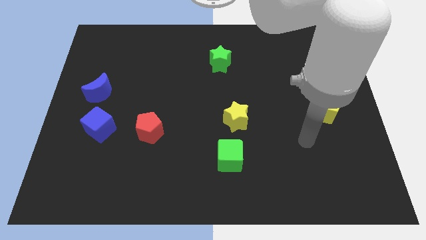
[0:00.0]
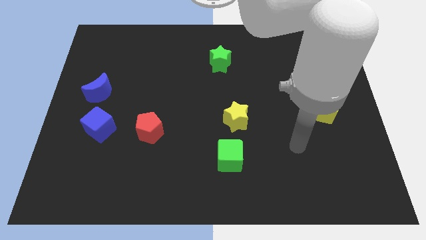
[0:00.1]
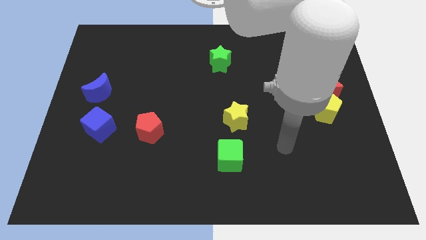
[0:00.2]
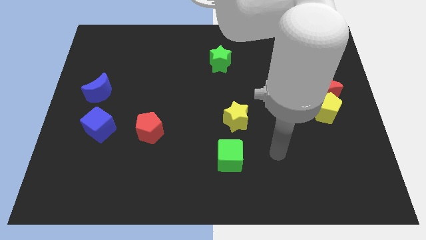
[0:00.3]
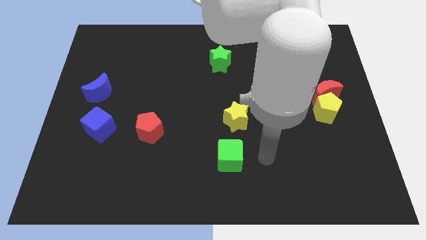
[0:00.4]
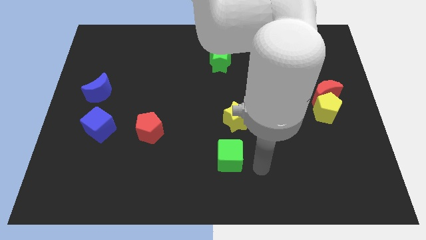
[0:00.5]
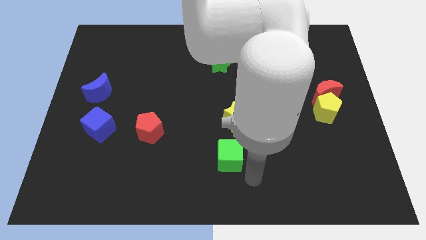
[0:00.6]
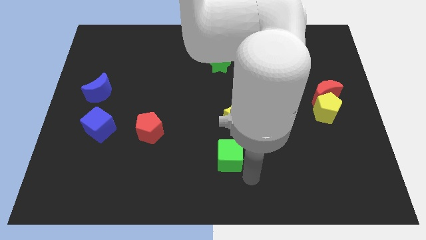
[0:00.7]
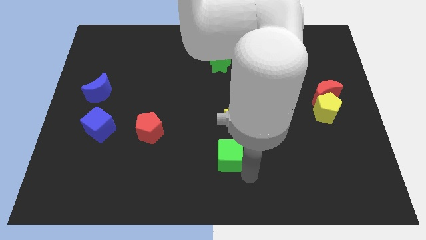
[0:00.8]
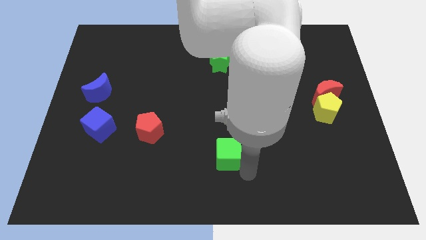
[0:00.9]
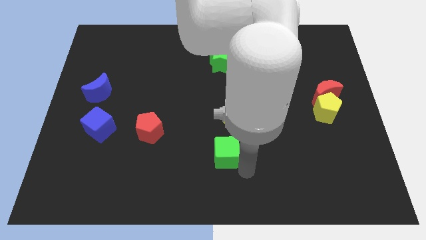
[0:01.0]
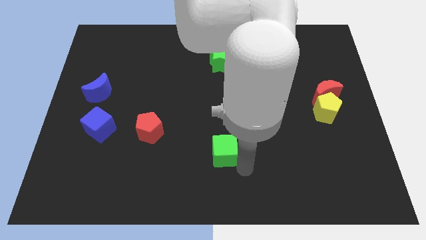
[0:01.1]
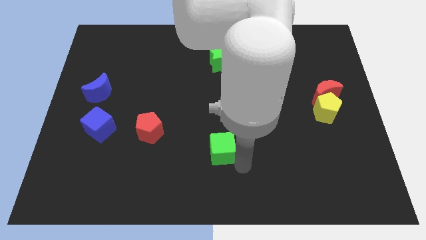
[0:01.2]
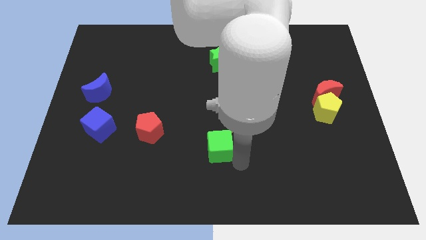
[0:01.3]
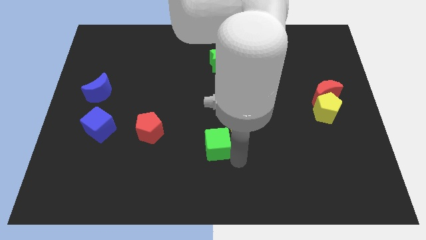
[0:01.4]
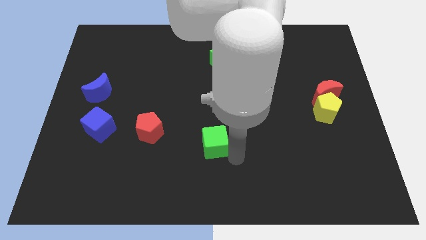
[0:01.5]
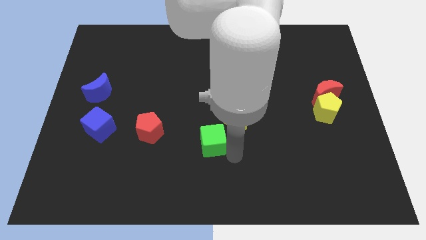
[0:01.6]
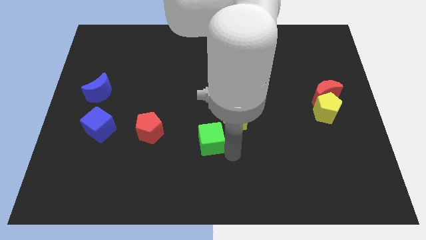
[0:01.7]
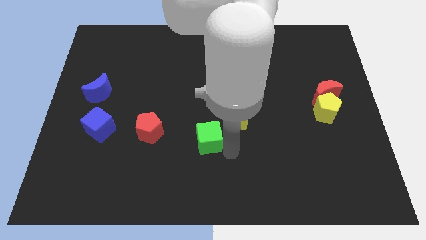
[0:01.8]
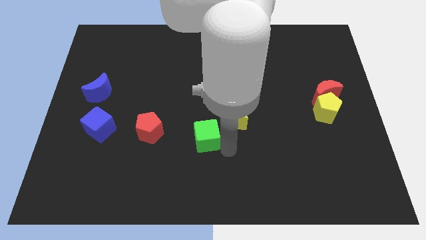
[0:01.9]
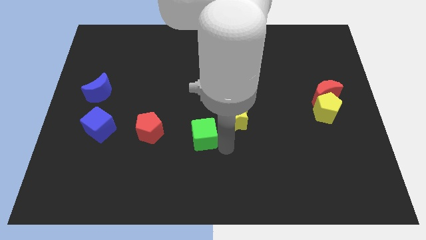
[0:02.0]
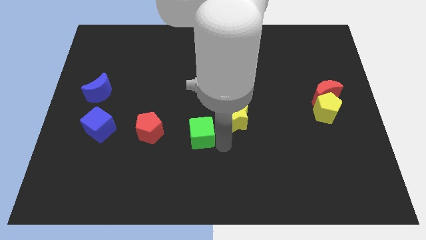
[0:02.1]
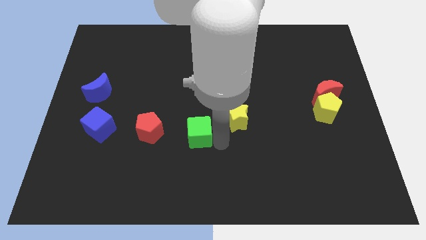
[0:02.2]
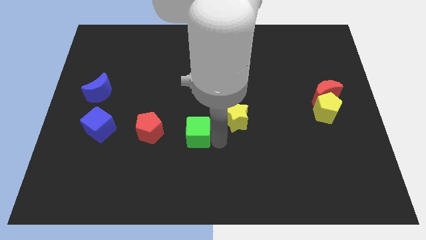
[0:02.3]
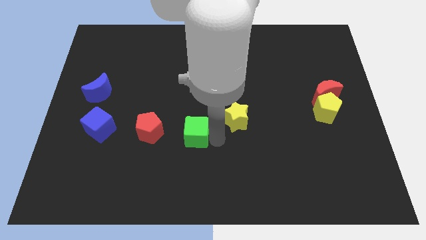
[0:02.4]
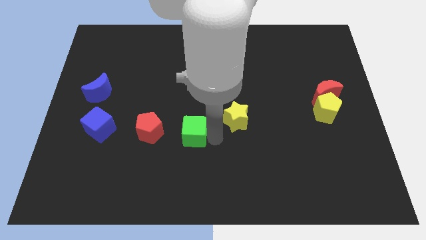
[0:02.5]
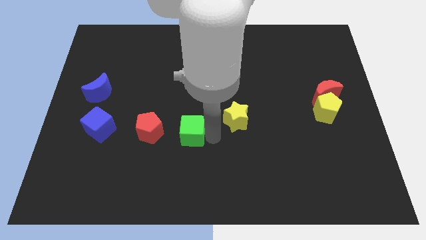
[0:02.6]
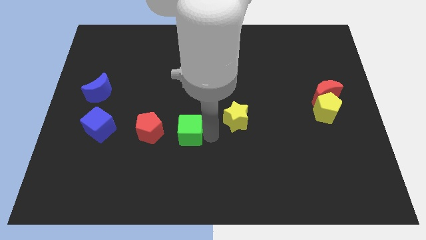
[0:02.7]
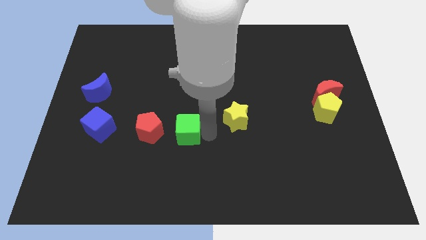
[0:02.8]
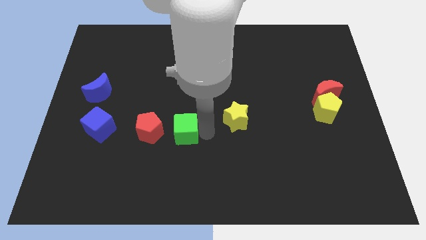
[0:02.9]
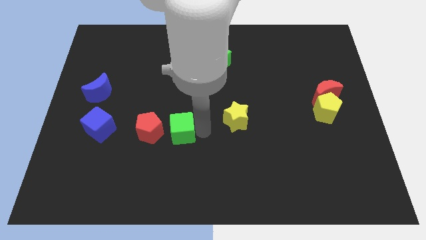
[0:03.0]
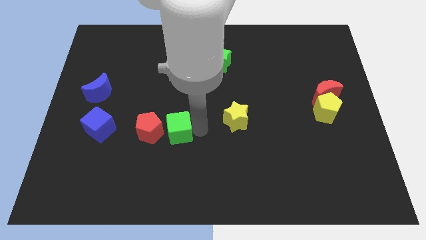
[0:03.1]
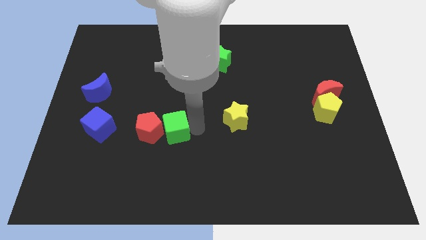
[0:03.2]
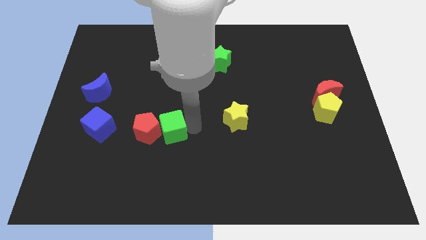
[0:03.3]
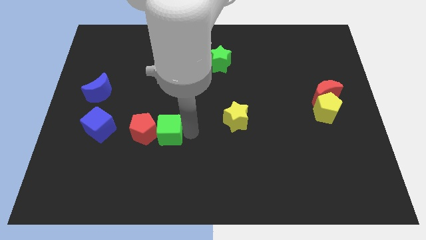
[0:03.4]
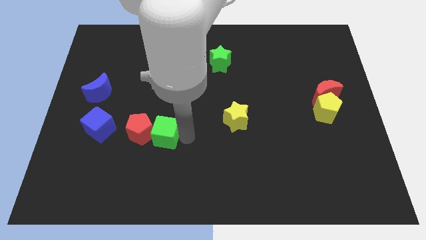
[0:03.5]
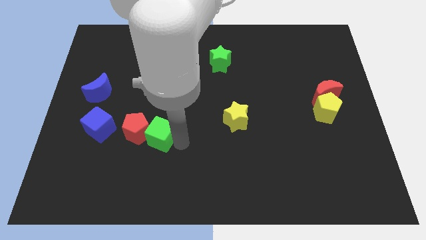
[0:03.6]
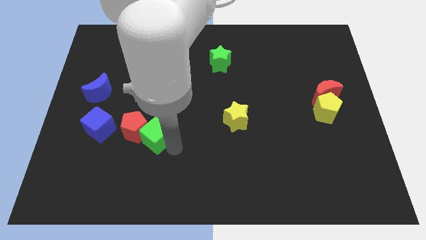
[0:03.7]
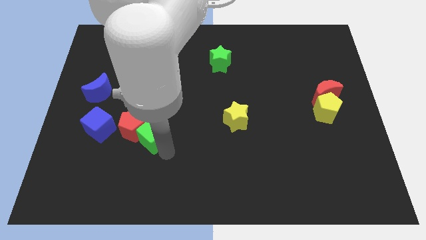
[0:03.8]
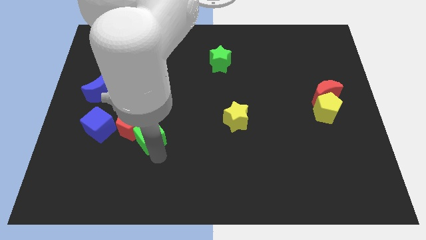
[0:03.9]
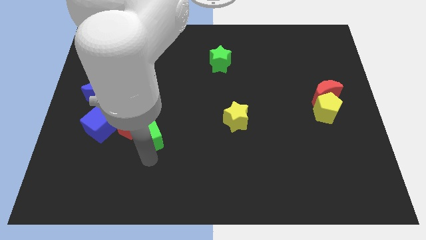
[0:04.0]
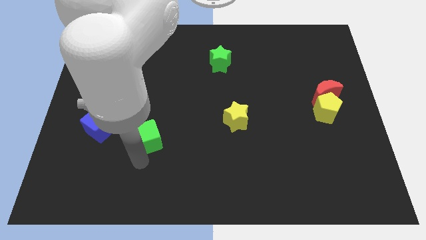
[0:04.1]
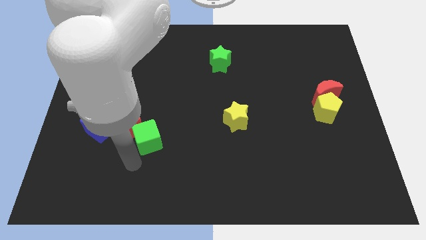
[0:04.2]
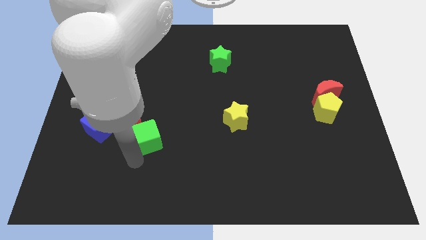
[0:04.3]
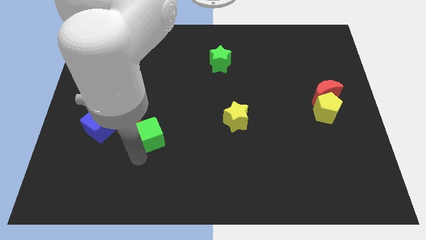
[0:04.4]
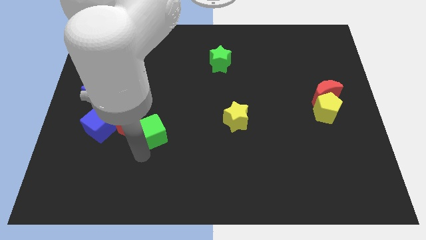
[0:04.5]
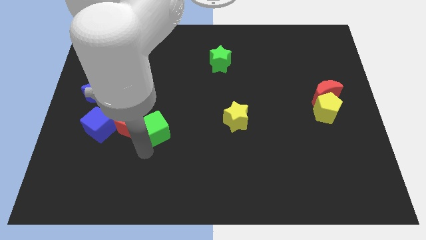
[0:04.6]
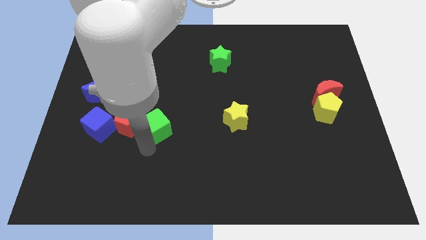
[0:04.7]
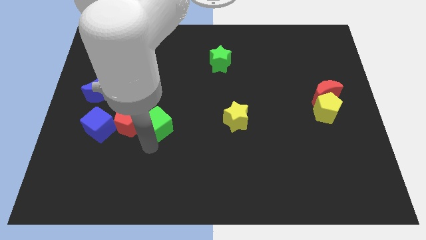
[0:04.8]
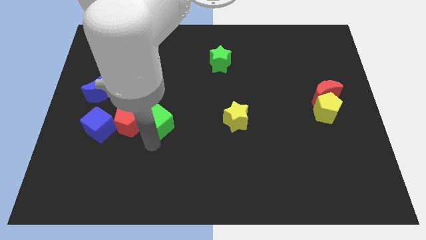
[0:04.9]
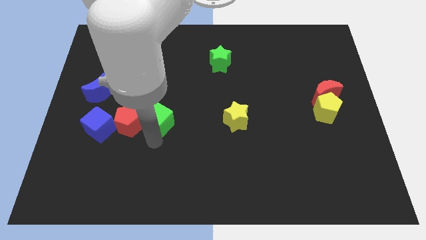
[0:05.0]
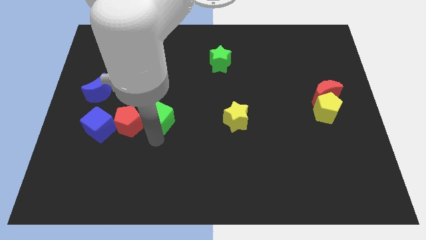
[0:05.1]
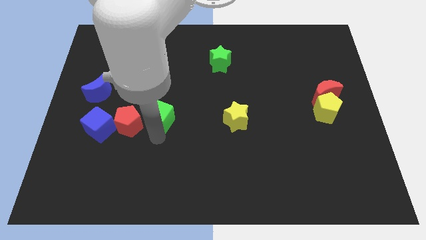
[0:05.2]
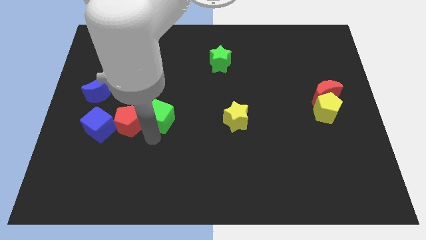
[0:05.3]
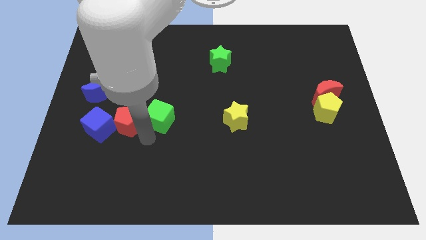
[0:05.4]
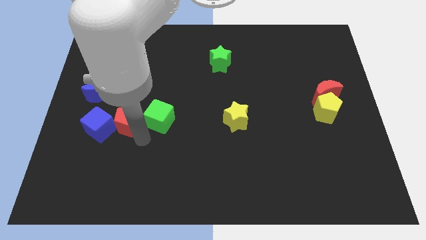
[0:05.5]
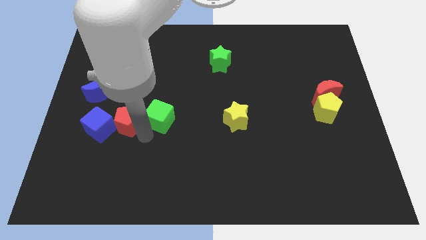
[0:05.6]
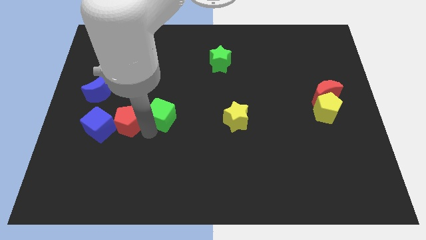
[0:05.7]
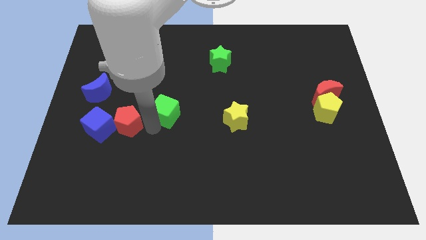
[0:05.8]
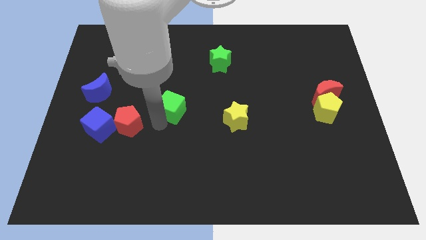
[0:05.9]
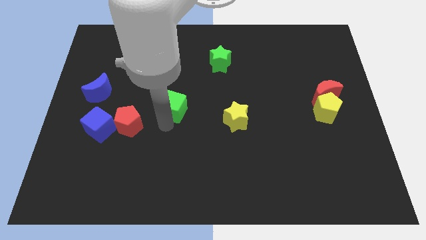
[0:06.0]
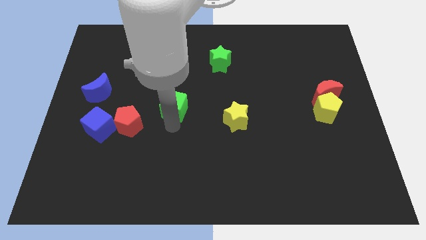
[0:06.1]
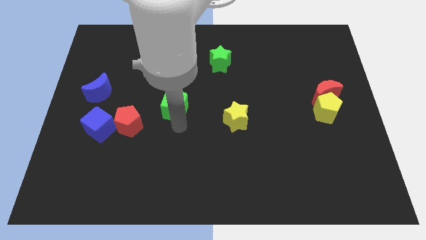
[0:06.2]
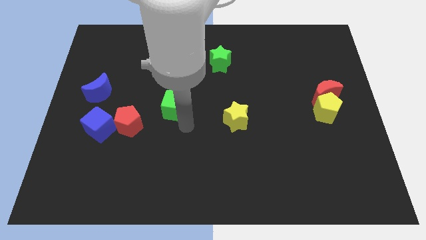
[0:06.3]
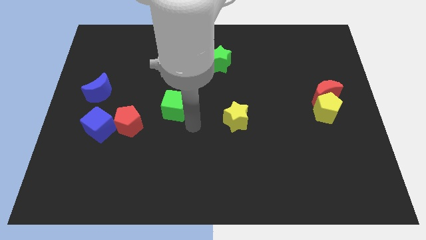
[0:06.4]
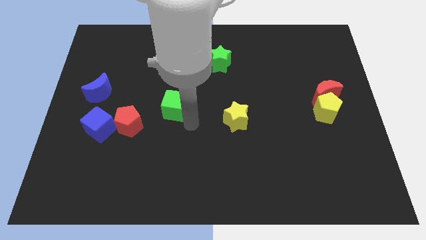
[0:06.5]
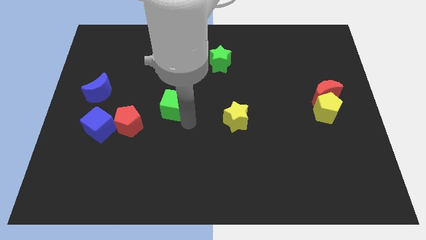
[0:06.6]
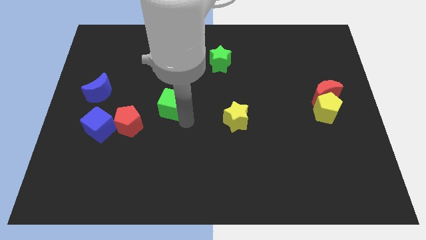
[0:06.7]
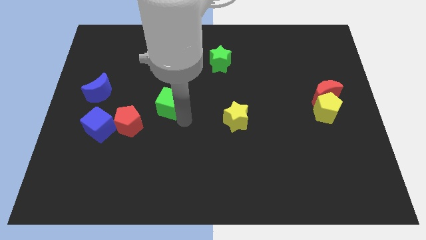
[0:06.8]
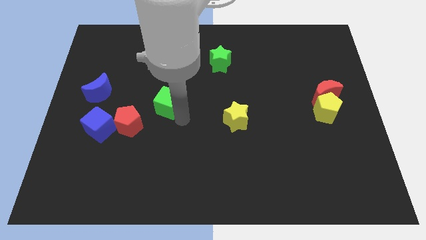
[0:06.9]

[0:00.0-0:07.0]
slide the green cube diagonally upwards and to the left

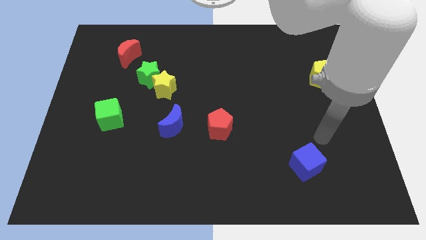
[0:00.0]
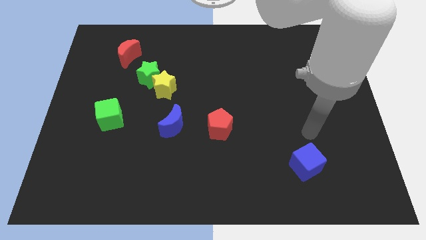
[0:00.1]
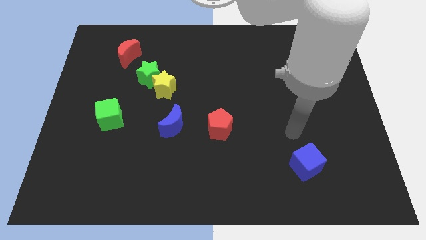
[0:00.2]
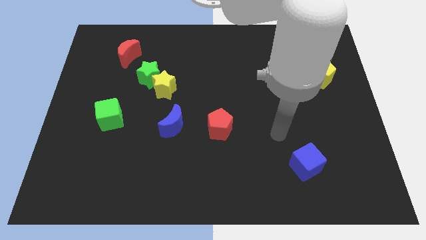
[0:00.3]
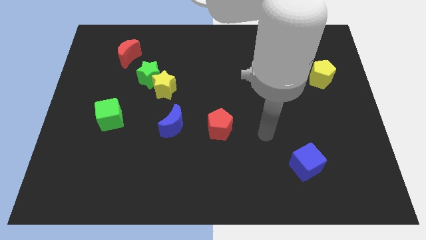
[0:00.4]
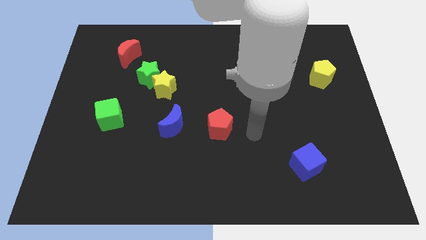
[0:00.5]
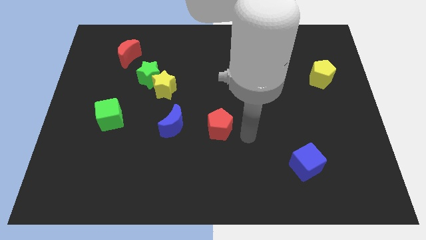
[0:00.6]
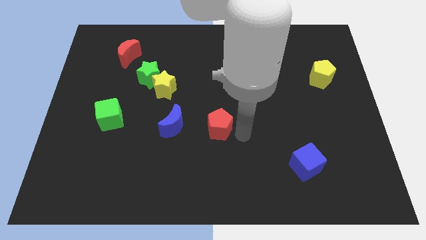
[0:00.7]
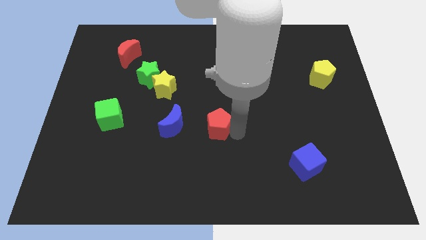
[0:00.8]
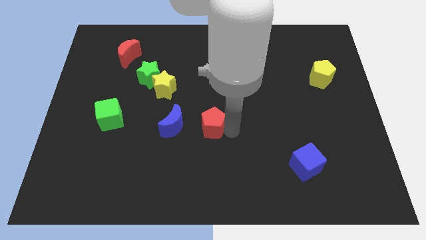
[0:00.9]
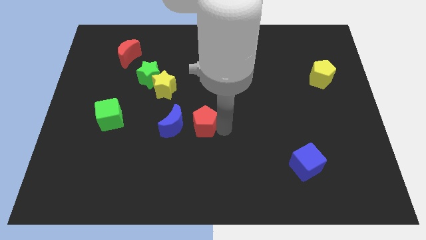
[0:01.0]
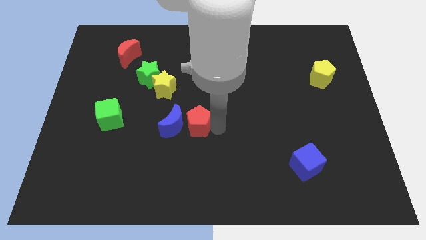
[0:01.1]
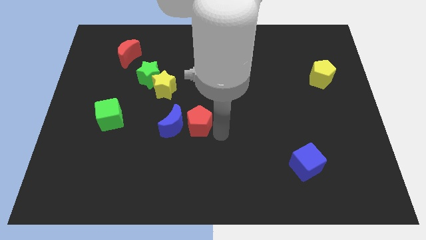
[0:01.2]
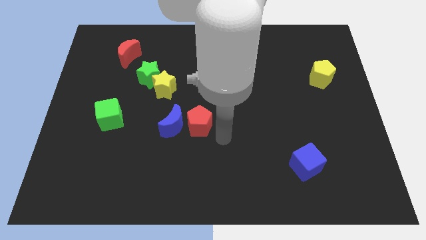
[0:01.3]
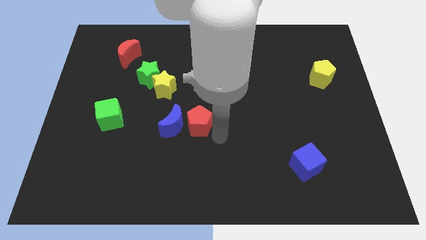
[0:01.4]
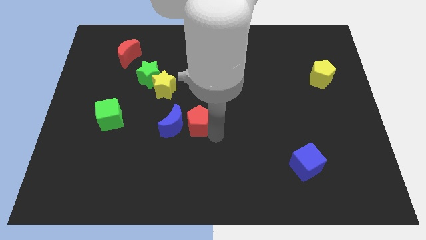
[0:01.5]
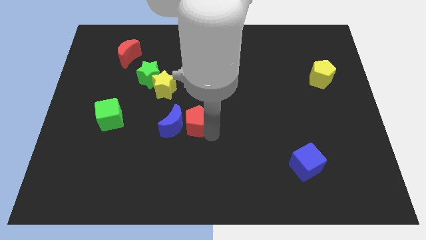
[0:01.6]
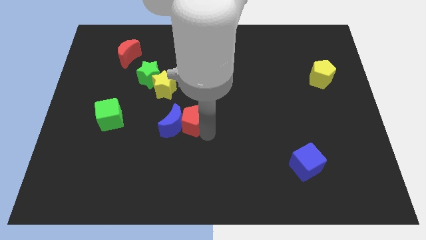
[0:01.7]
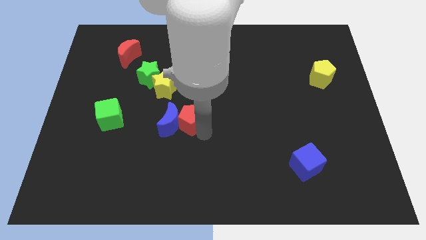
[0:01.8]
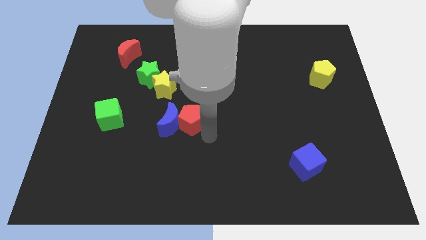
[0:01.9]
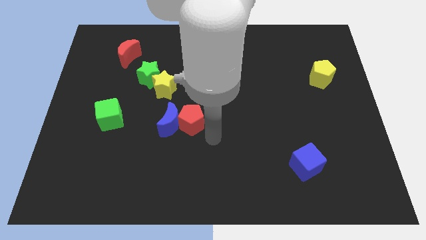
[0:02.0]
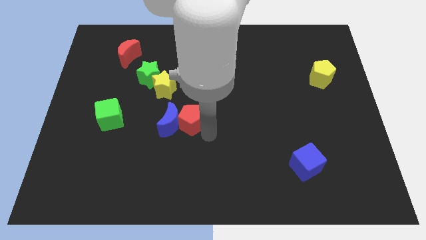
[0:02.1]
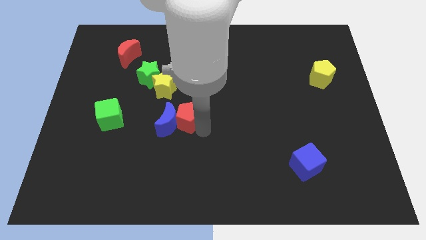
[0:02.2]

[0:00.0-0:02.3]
move the red pentagon to the left somewhat
